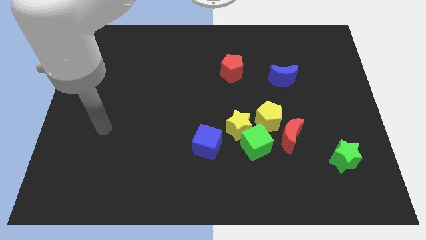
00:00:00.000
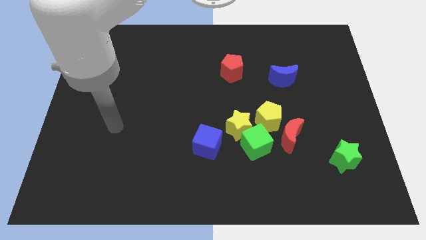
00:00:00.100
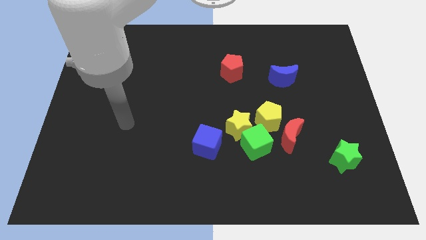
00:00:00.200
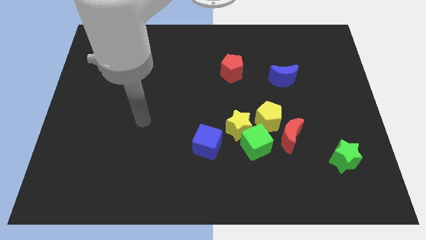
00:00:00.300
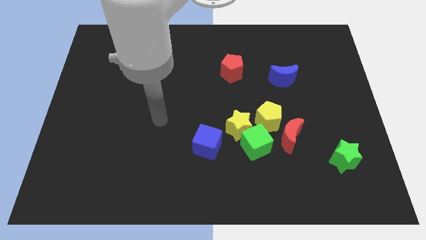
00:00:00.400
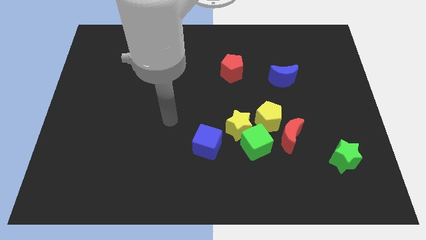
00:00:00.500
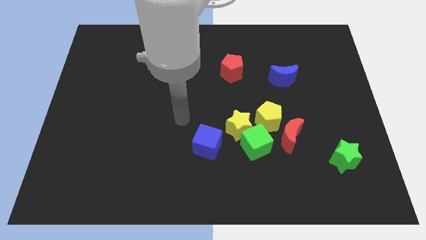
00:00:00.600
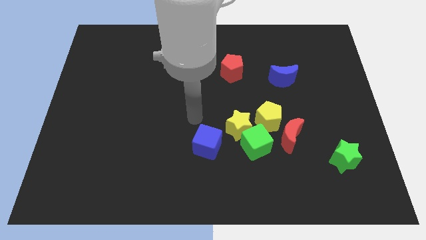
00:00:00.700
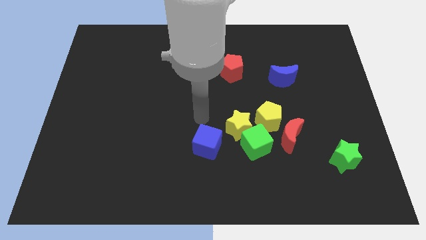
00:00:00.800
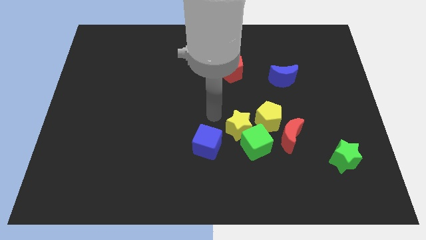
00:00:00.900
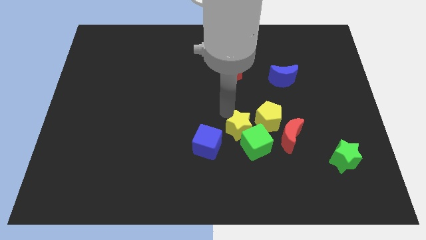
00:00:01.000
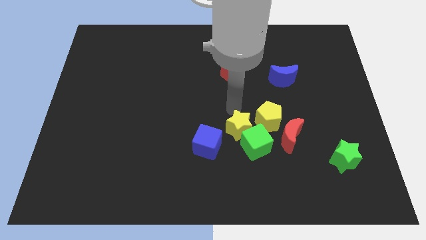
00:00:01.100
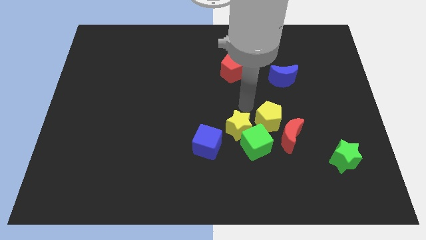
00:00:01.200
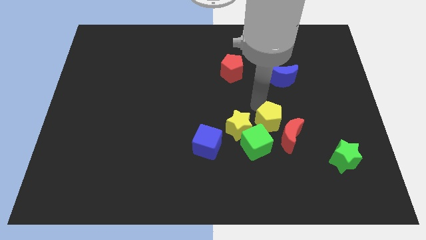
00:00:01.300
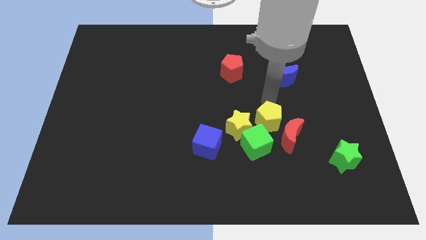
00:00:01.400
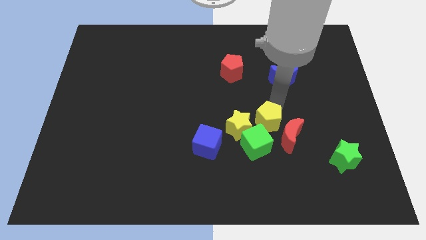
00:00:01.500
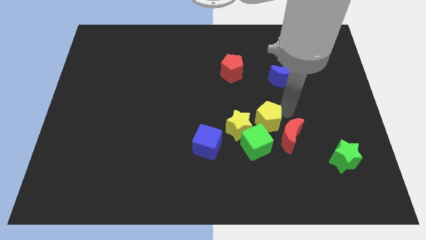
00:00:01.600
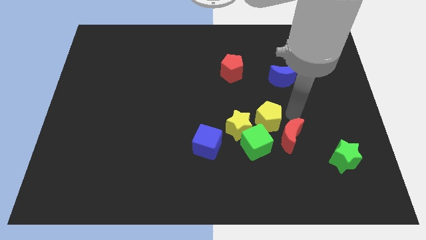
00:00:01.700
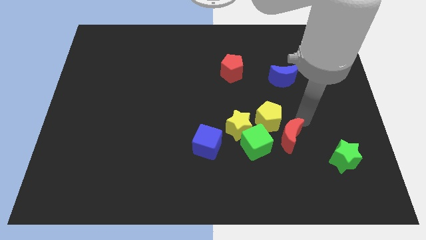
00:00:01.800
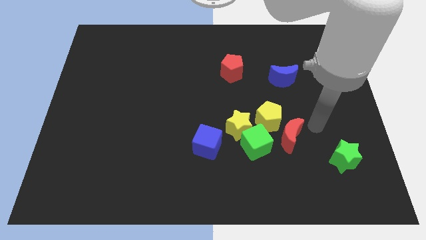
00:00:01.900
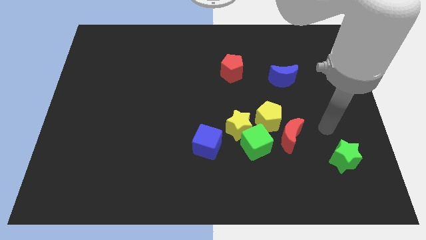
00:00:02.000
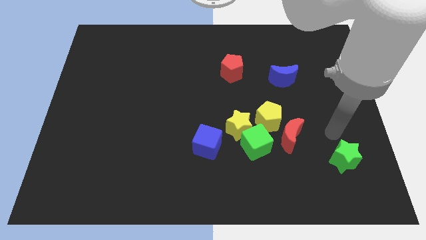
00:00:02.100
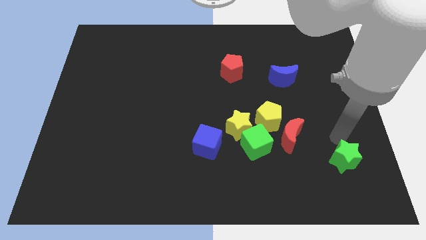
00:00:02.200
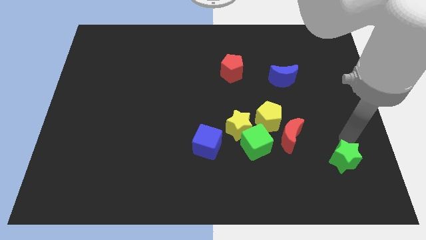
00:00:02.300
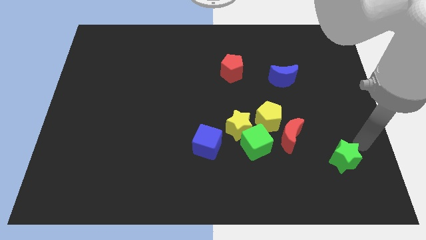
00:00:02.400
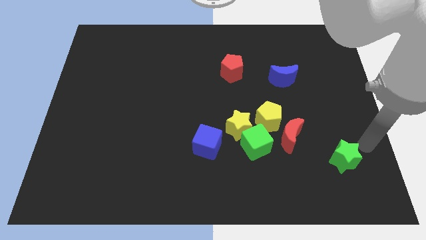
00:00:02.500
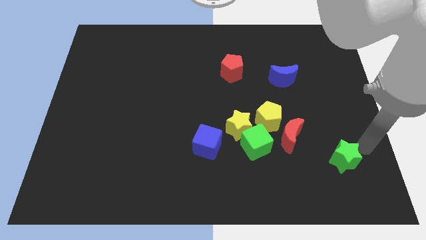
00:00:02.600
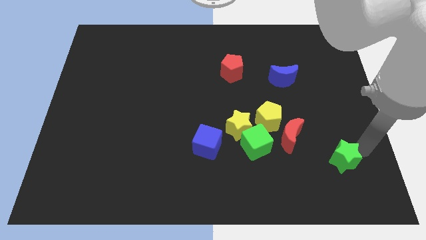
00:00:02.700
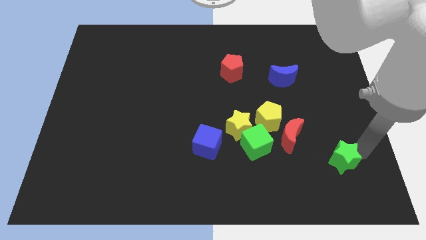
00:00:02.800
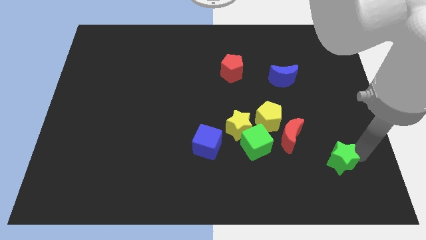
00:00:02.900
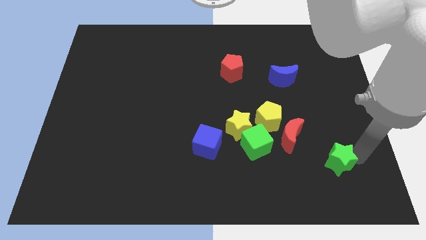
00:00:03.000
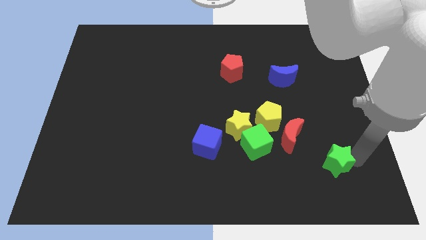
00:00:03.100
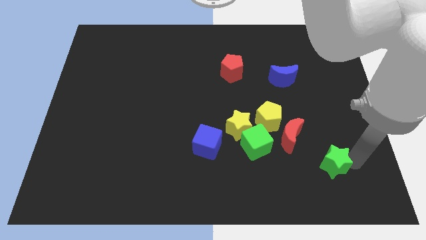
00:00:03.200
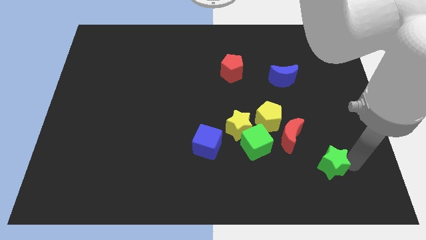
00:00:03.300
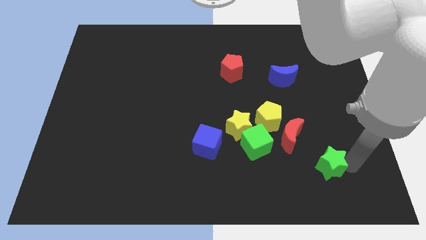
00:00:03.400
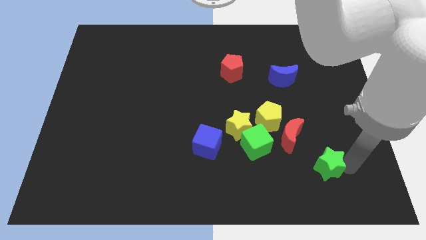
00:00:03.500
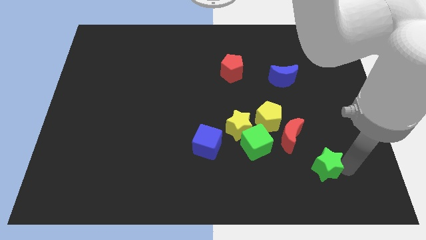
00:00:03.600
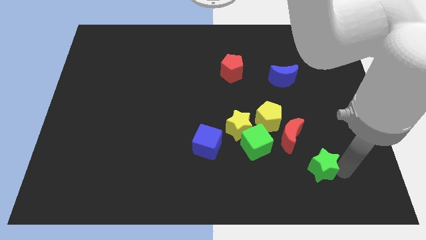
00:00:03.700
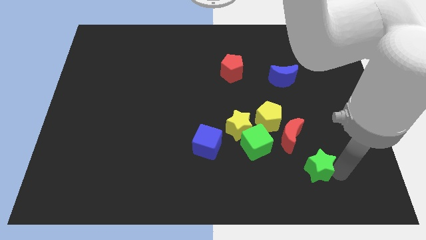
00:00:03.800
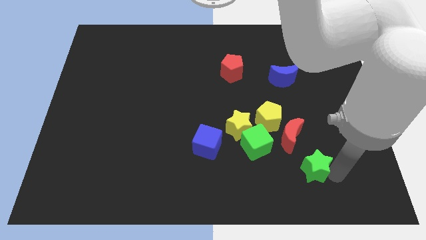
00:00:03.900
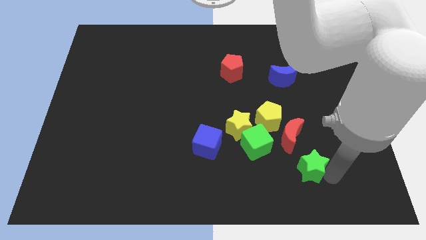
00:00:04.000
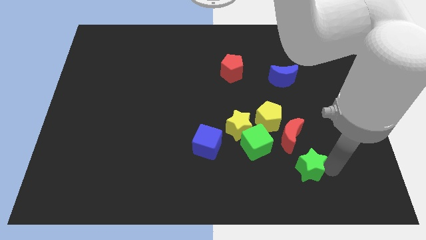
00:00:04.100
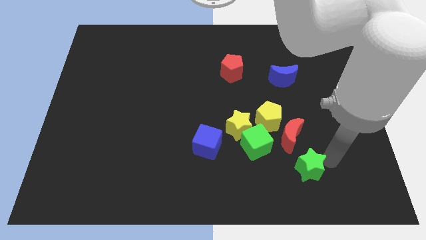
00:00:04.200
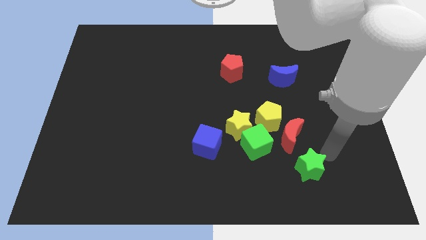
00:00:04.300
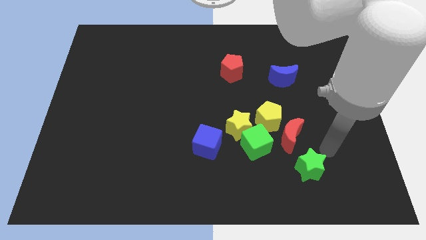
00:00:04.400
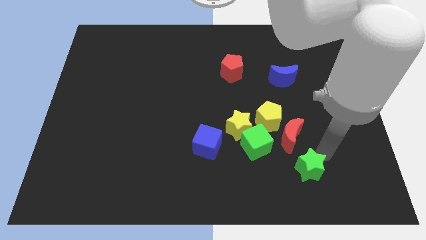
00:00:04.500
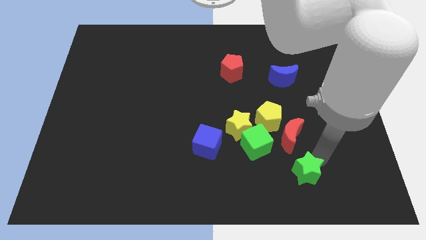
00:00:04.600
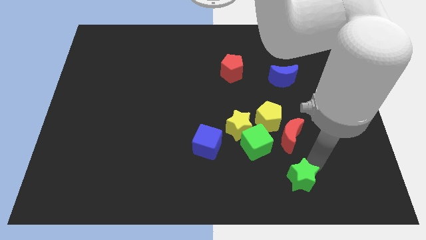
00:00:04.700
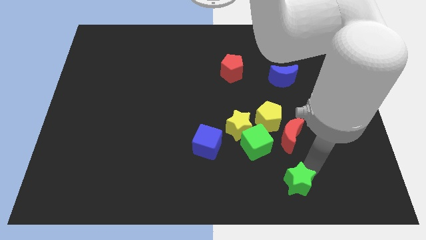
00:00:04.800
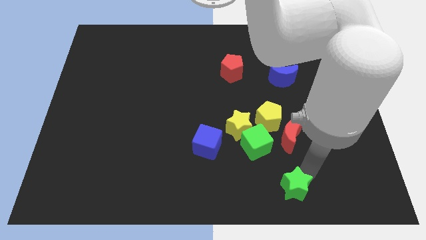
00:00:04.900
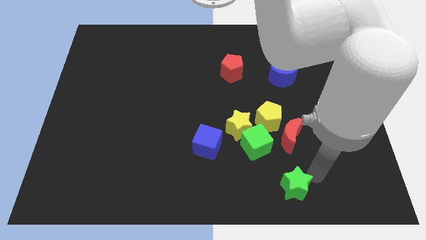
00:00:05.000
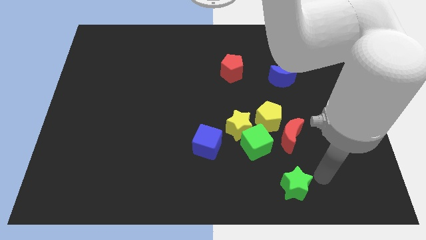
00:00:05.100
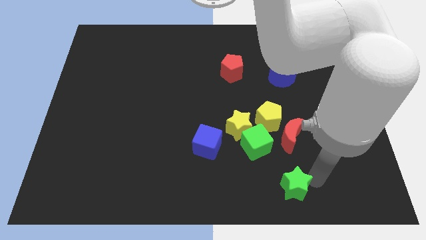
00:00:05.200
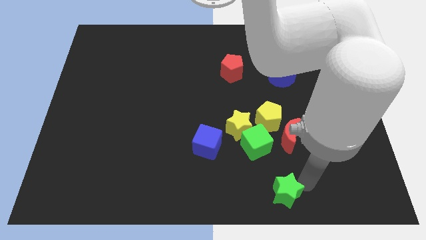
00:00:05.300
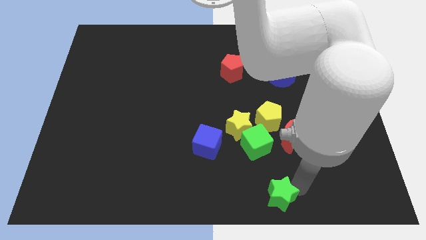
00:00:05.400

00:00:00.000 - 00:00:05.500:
push the green star to the bottom

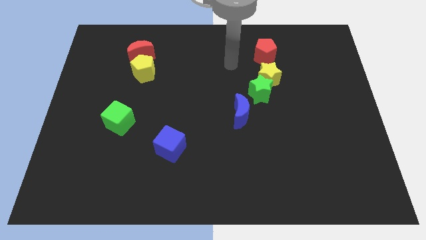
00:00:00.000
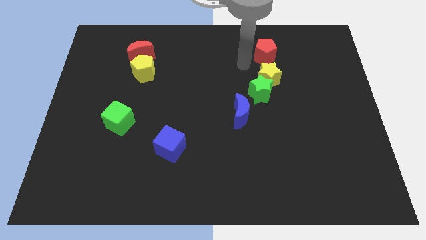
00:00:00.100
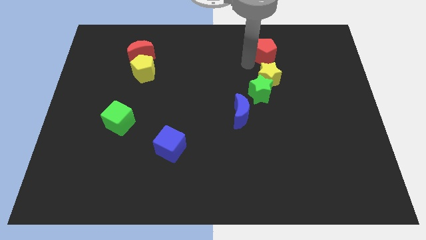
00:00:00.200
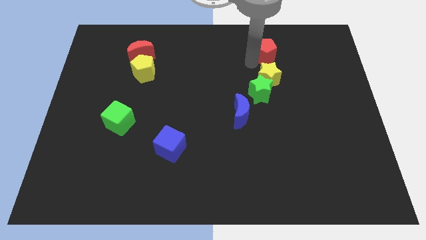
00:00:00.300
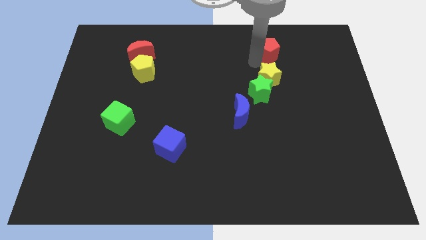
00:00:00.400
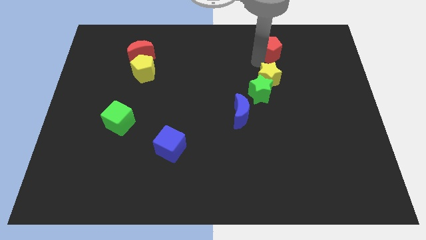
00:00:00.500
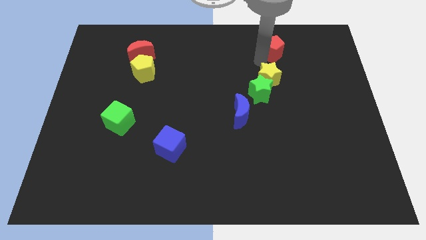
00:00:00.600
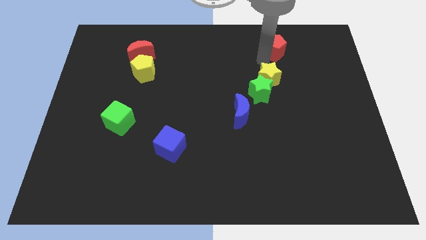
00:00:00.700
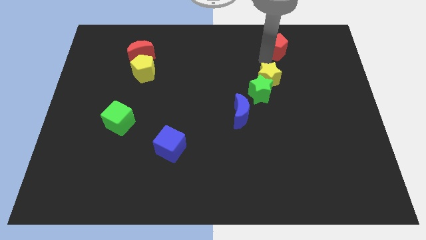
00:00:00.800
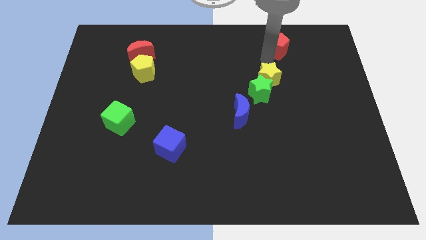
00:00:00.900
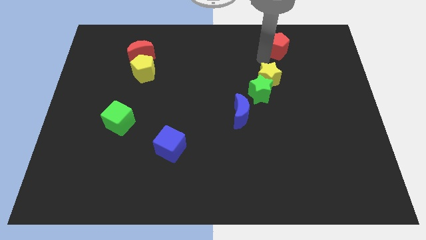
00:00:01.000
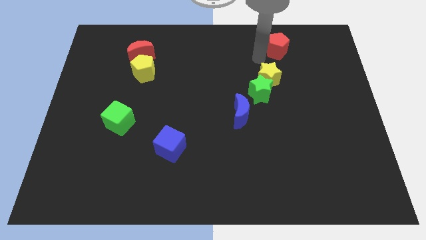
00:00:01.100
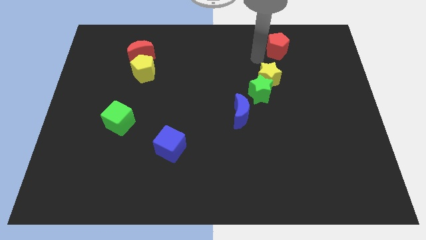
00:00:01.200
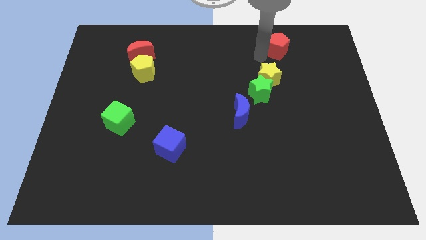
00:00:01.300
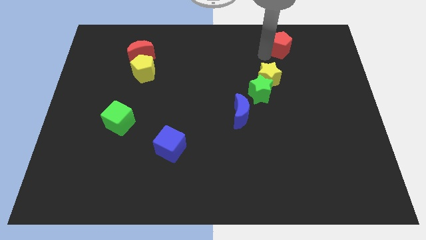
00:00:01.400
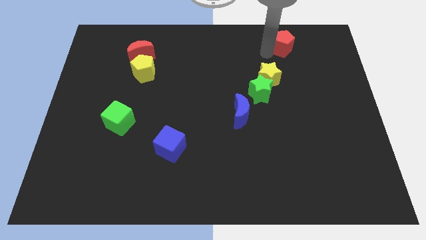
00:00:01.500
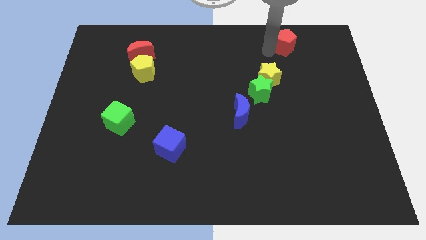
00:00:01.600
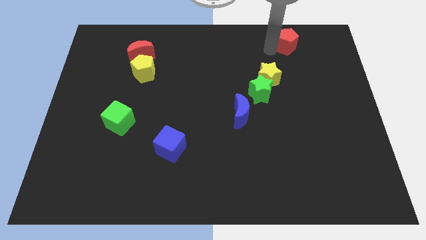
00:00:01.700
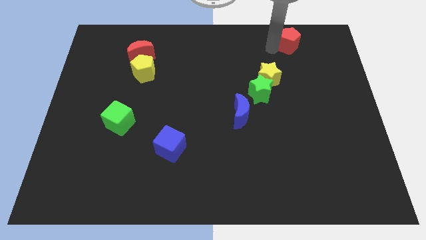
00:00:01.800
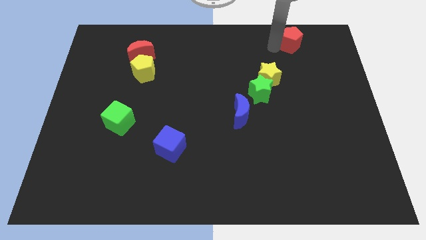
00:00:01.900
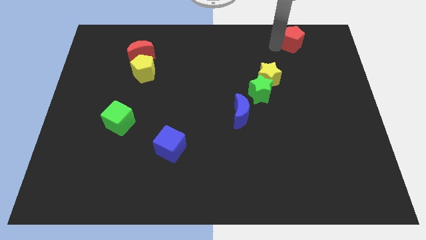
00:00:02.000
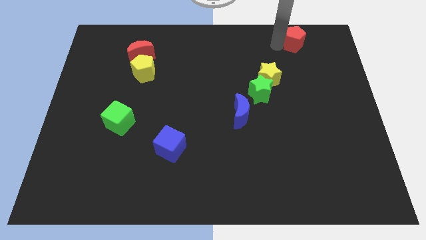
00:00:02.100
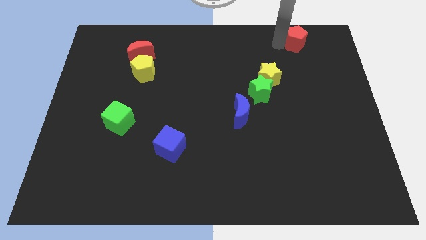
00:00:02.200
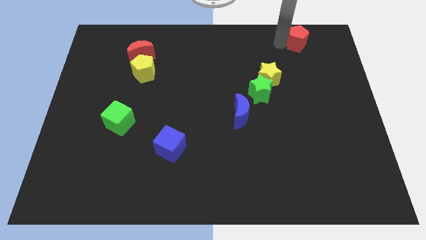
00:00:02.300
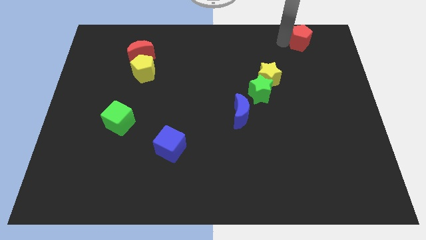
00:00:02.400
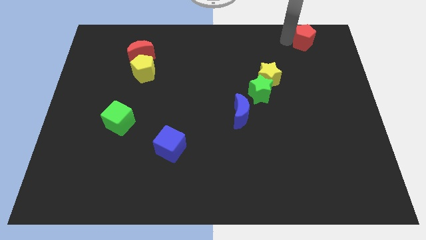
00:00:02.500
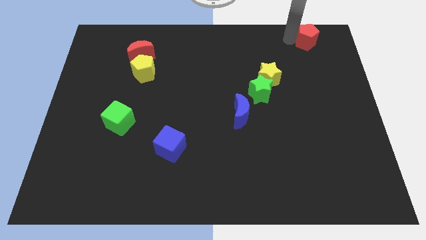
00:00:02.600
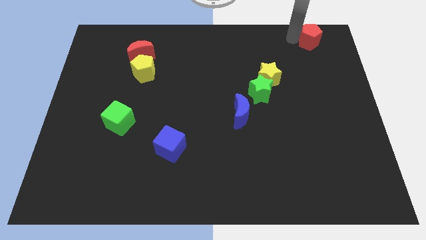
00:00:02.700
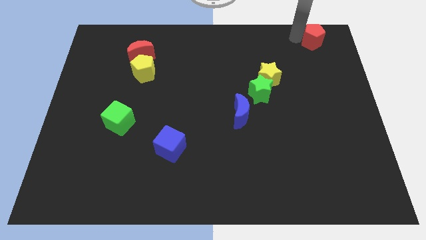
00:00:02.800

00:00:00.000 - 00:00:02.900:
put the red pentagon to the top right
